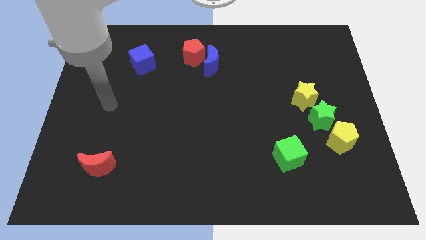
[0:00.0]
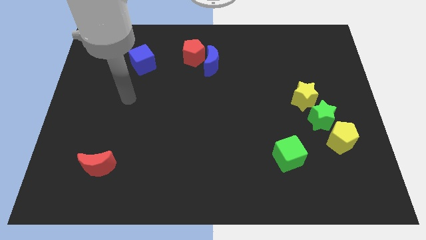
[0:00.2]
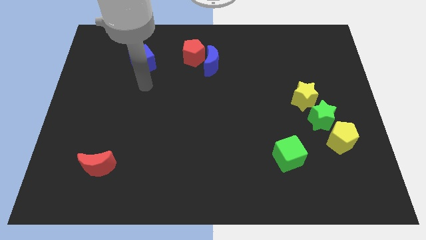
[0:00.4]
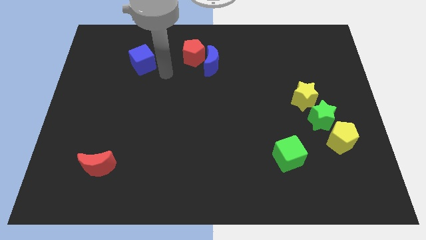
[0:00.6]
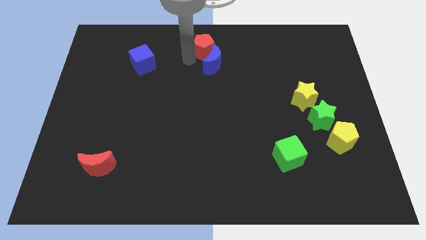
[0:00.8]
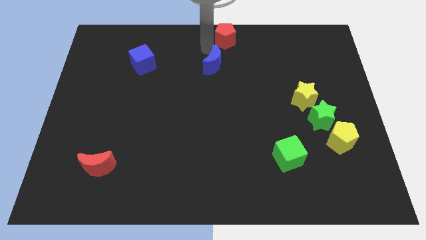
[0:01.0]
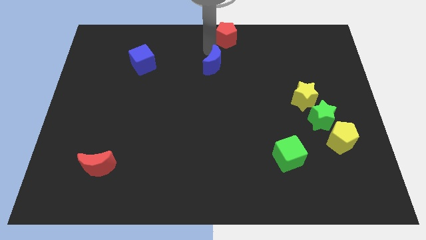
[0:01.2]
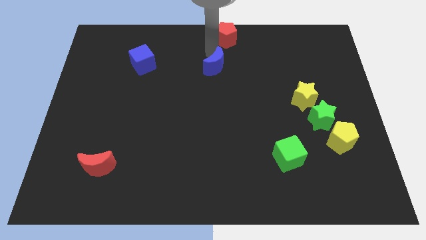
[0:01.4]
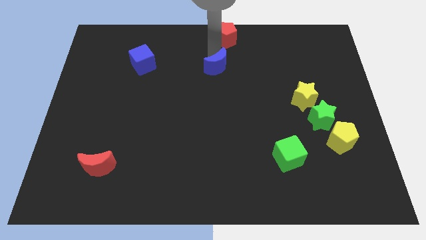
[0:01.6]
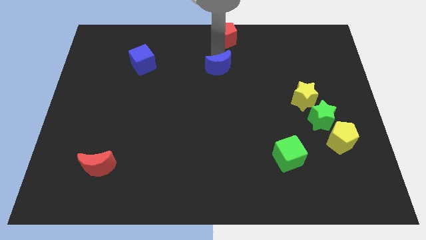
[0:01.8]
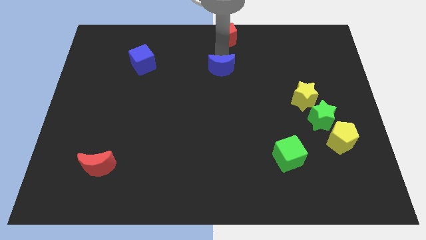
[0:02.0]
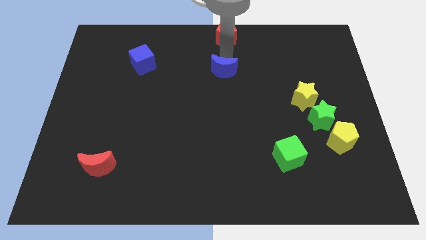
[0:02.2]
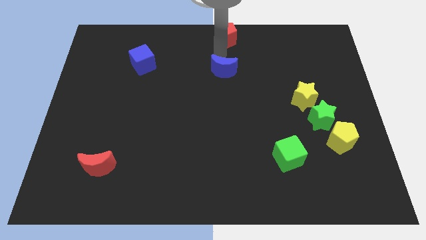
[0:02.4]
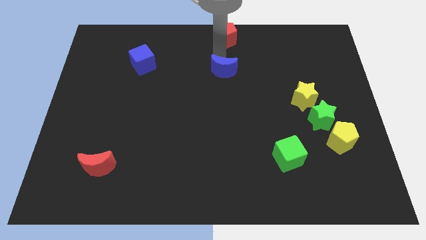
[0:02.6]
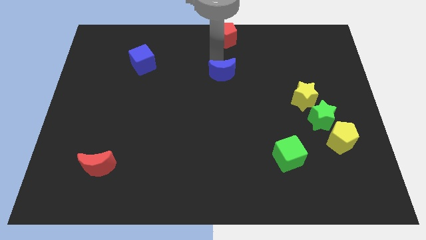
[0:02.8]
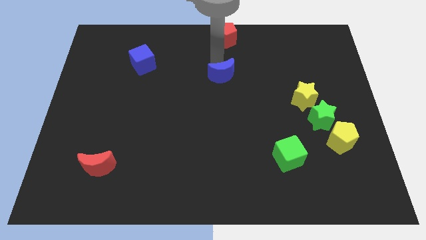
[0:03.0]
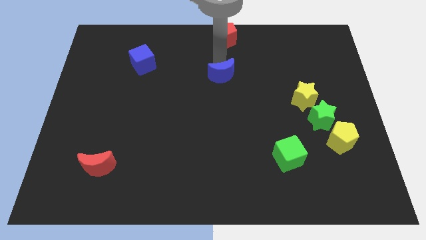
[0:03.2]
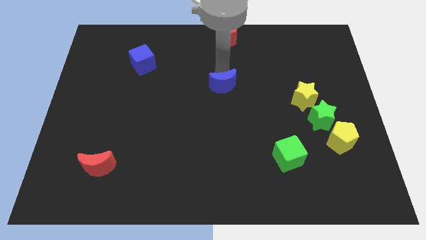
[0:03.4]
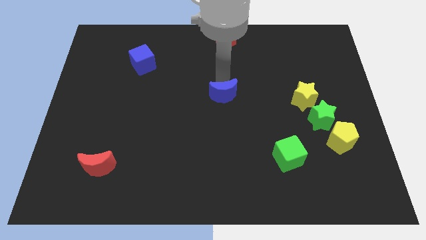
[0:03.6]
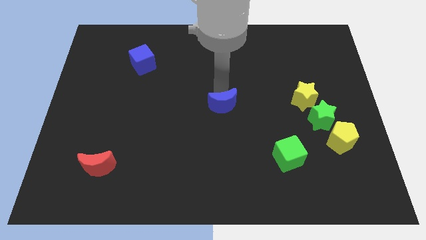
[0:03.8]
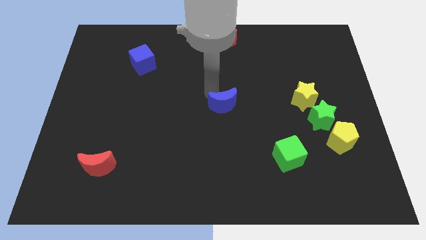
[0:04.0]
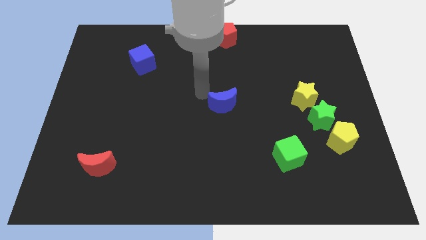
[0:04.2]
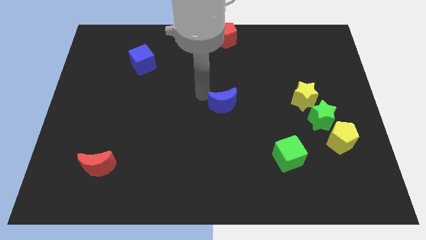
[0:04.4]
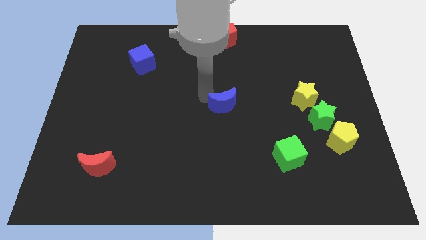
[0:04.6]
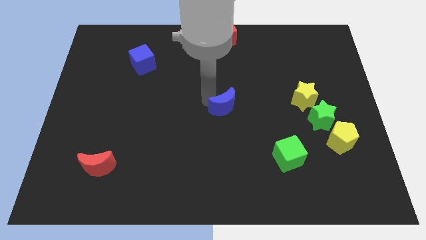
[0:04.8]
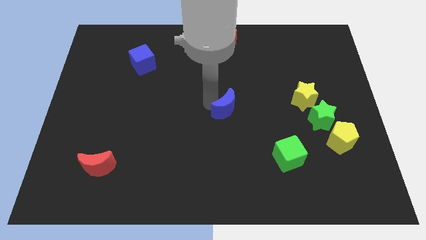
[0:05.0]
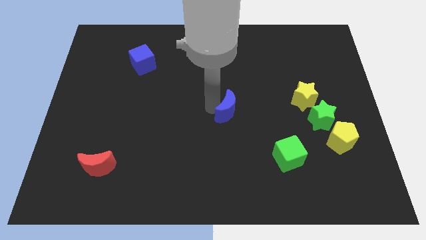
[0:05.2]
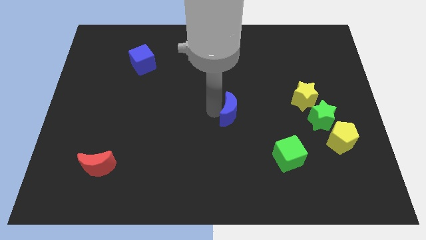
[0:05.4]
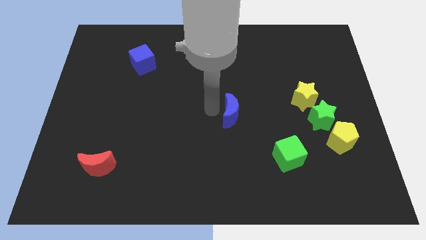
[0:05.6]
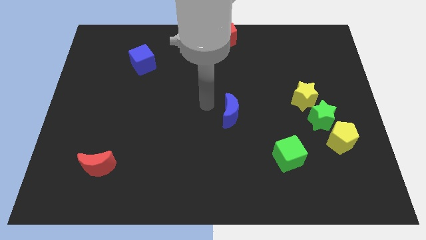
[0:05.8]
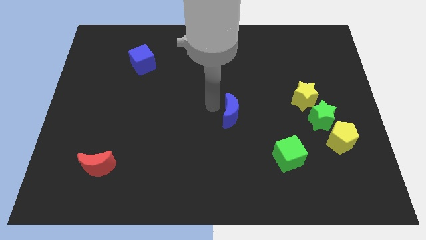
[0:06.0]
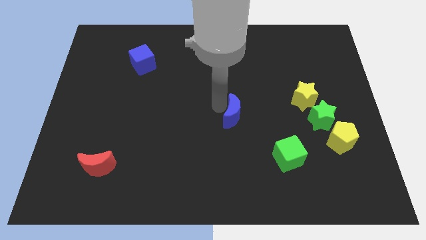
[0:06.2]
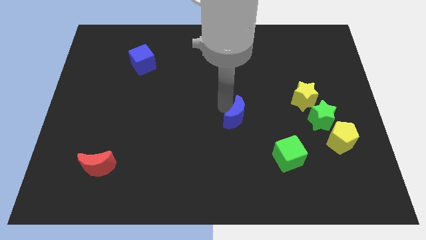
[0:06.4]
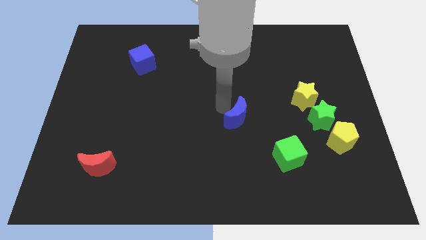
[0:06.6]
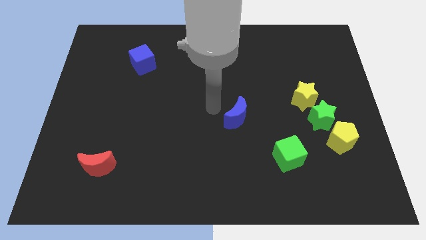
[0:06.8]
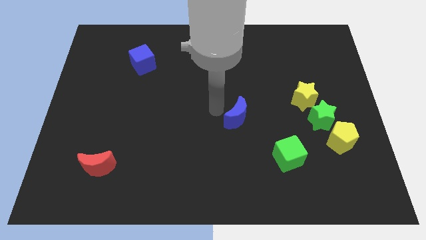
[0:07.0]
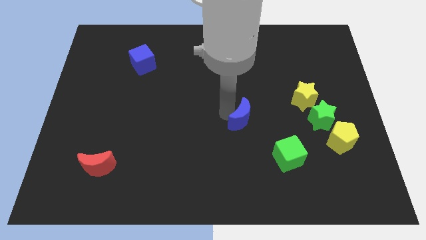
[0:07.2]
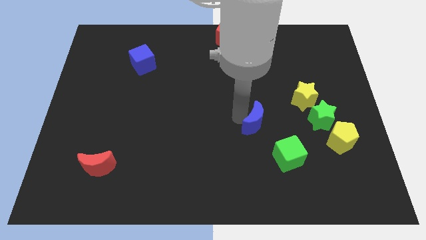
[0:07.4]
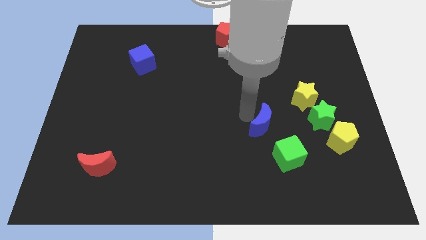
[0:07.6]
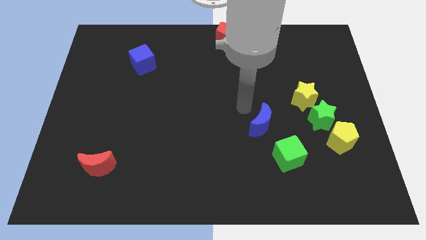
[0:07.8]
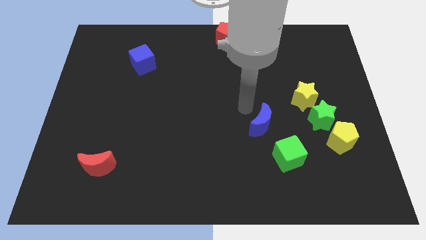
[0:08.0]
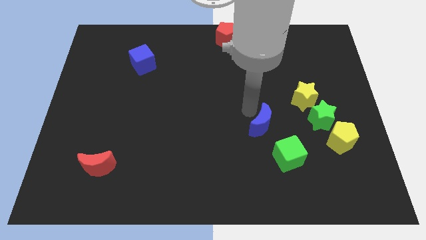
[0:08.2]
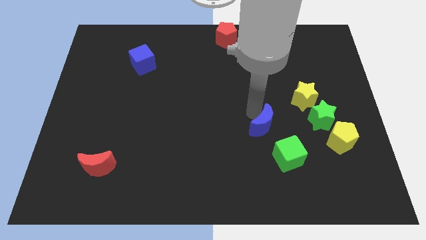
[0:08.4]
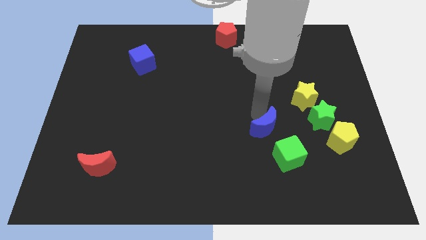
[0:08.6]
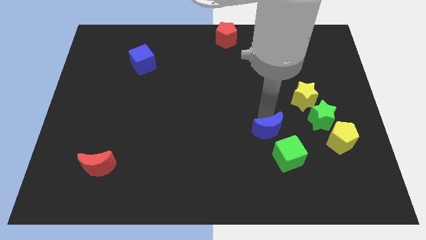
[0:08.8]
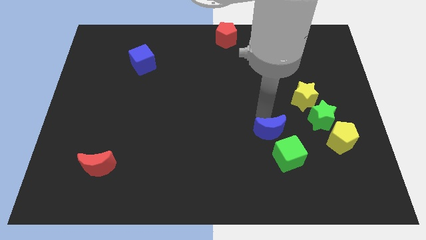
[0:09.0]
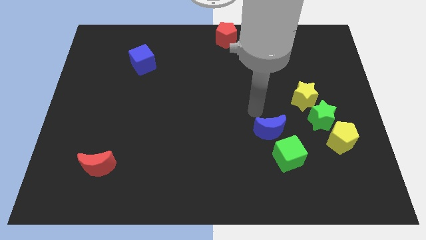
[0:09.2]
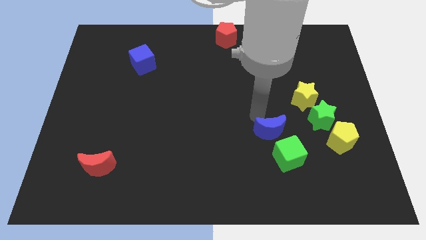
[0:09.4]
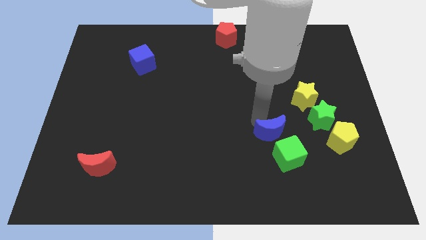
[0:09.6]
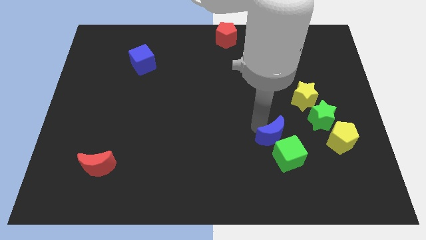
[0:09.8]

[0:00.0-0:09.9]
push the blue moon to the green cube

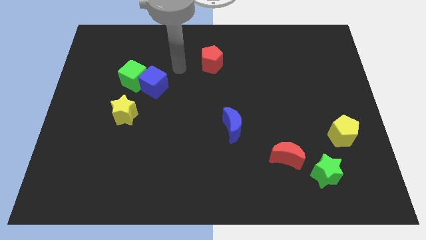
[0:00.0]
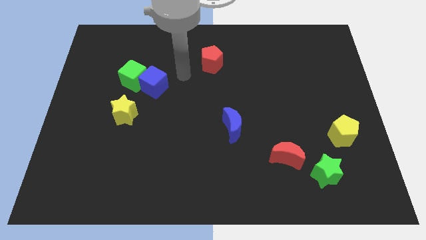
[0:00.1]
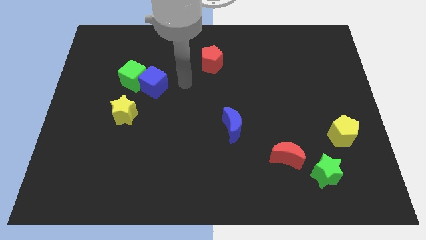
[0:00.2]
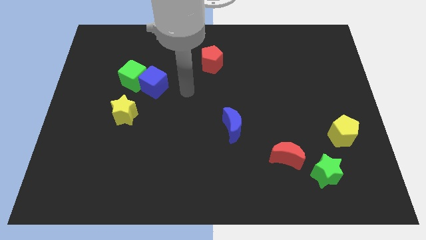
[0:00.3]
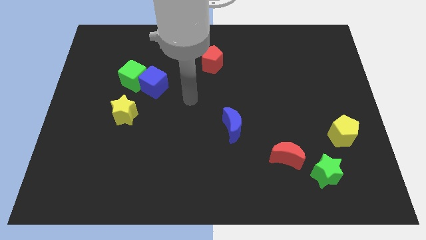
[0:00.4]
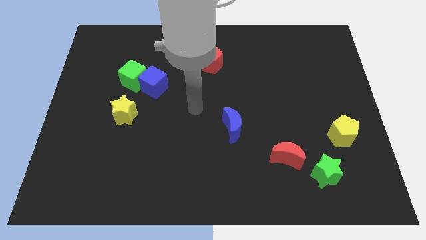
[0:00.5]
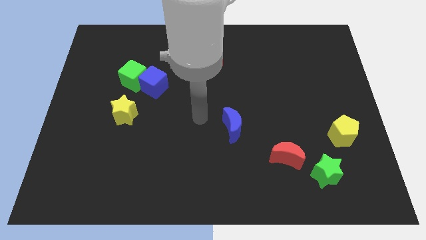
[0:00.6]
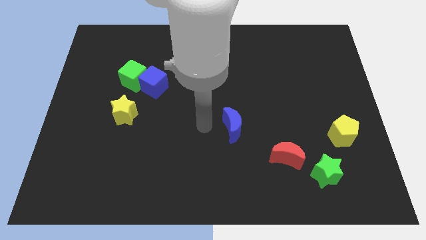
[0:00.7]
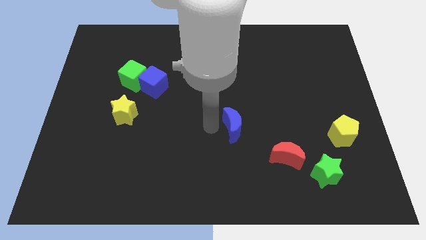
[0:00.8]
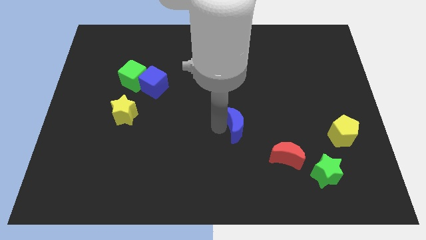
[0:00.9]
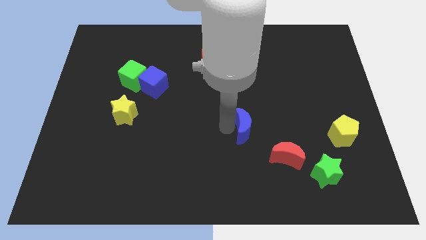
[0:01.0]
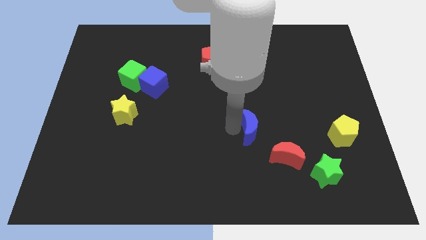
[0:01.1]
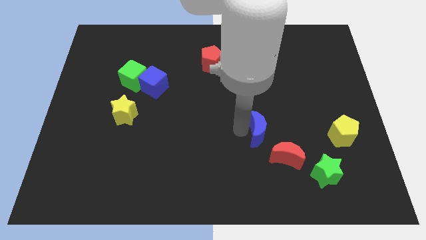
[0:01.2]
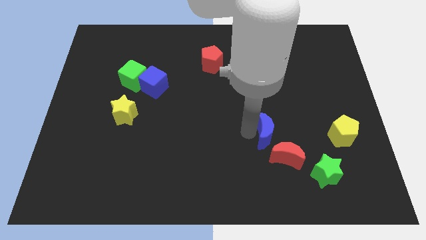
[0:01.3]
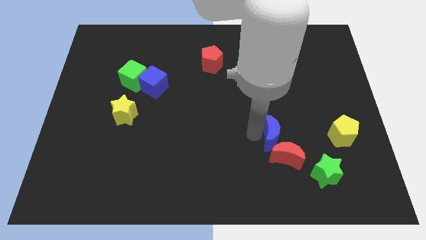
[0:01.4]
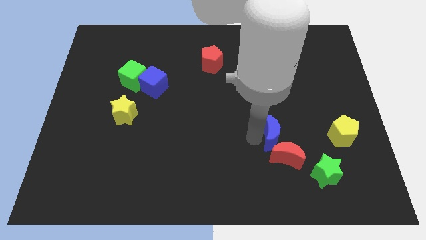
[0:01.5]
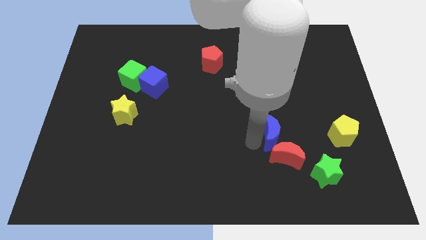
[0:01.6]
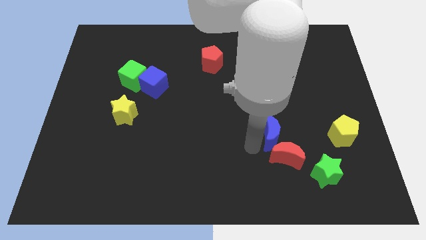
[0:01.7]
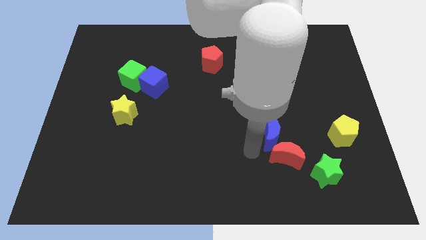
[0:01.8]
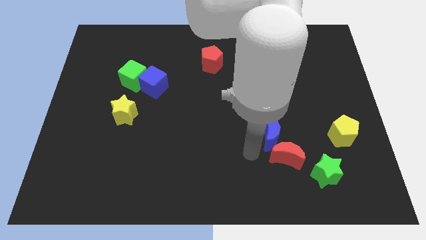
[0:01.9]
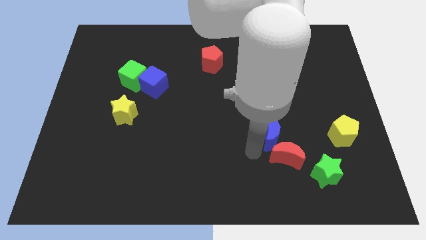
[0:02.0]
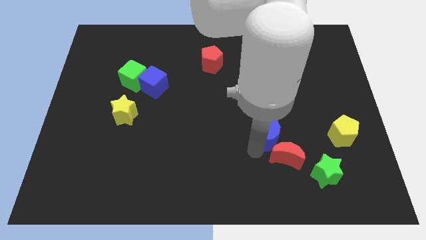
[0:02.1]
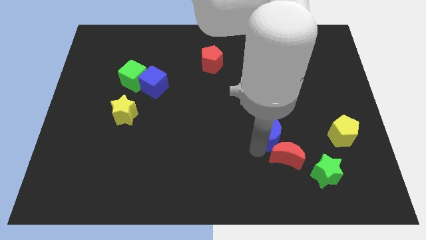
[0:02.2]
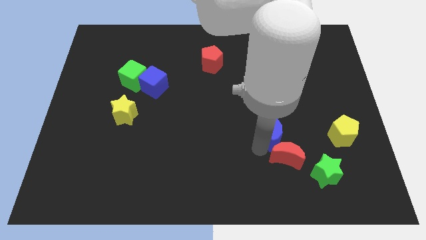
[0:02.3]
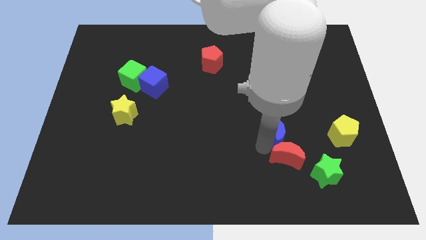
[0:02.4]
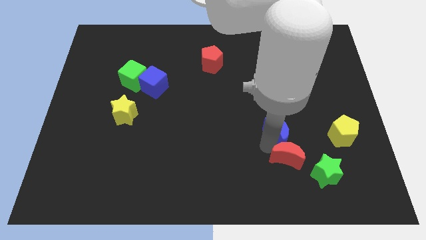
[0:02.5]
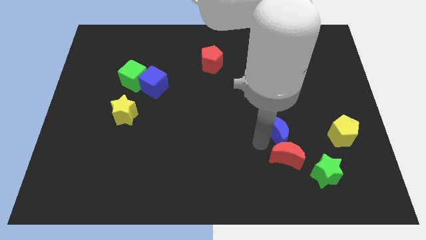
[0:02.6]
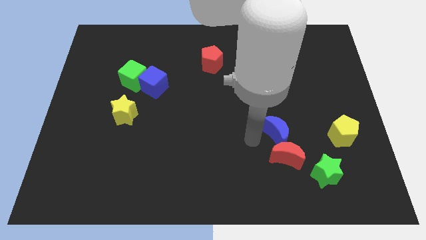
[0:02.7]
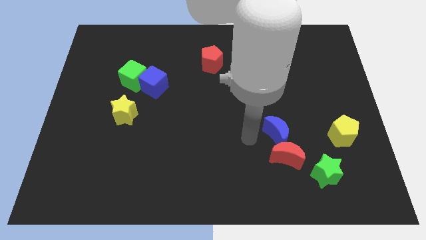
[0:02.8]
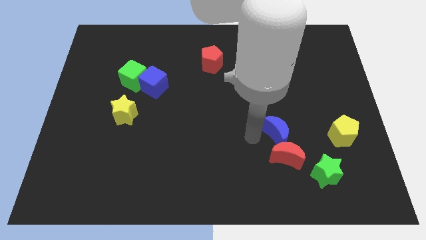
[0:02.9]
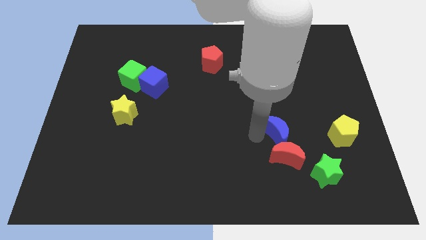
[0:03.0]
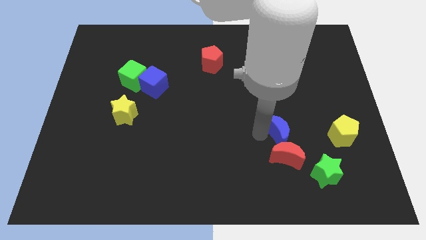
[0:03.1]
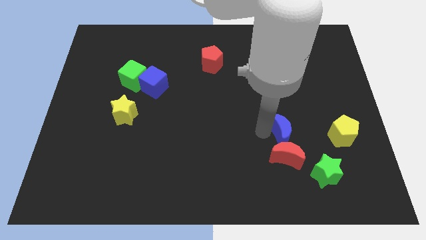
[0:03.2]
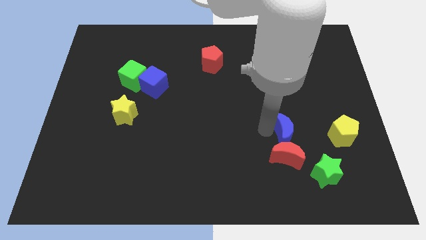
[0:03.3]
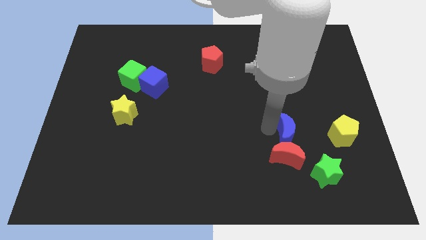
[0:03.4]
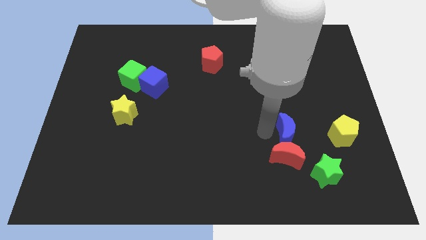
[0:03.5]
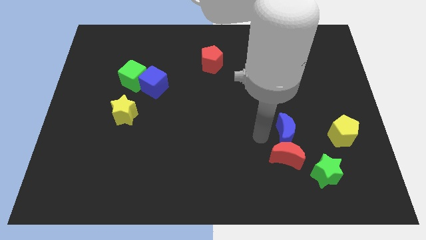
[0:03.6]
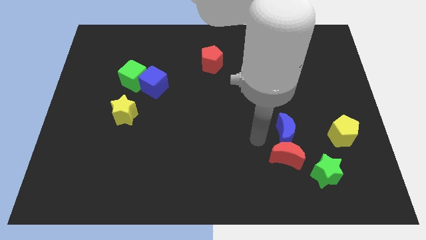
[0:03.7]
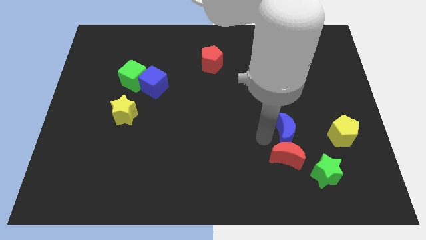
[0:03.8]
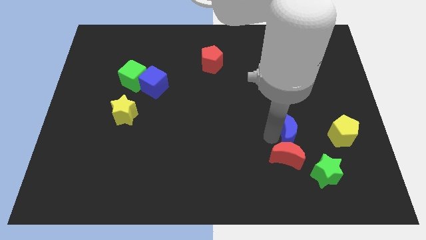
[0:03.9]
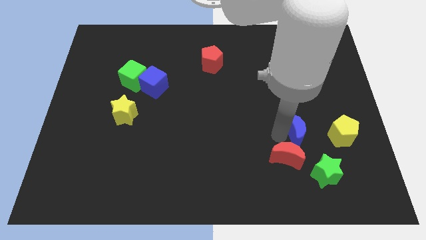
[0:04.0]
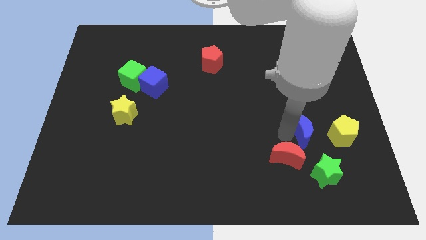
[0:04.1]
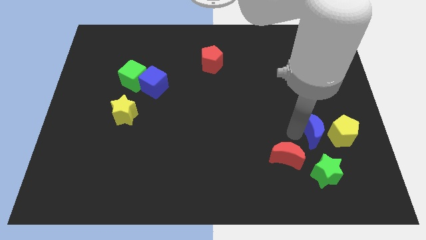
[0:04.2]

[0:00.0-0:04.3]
put the blue moon to the yellow pentagon
